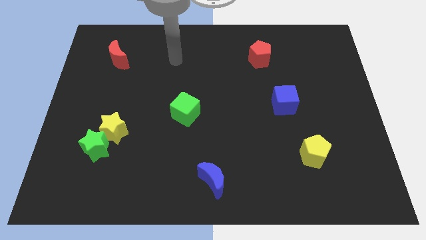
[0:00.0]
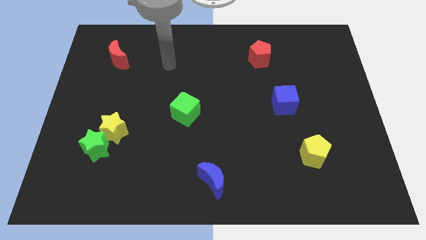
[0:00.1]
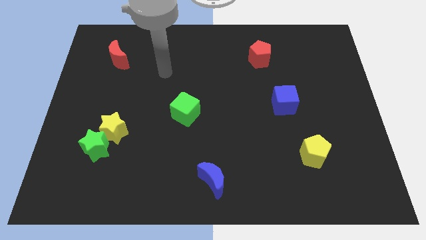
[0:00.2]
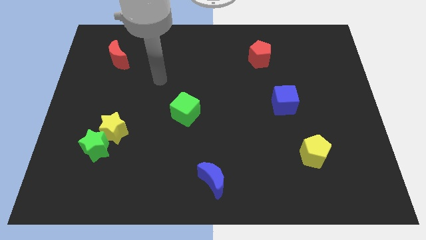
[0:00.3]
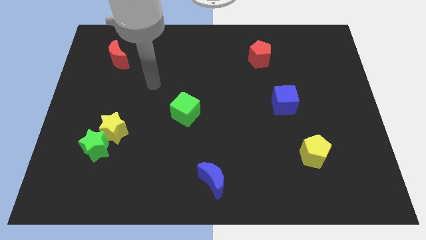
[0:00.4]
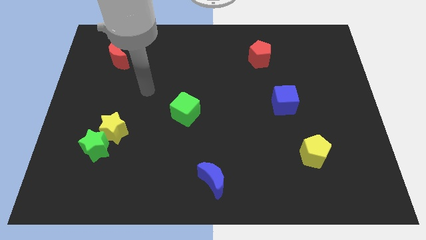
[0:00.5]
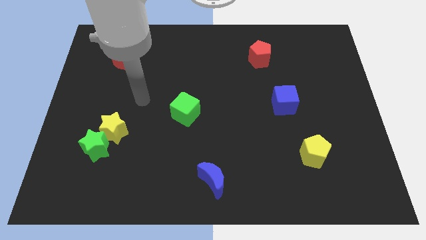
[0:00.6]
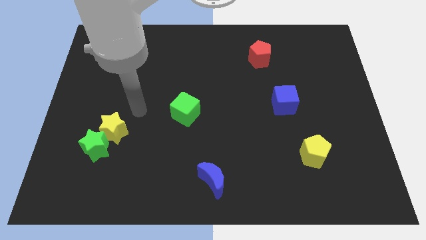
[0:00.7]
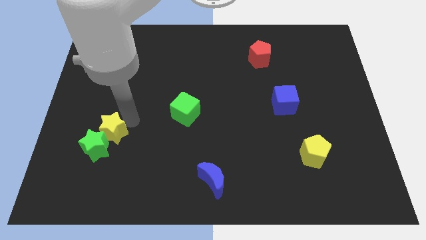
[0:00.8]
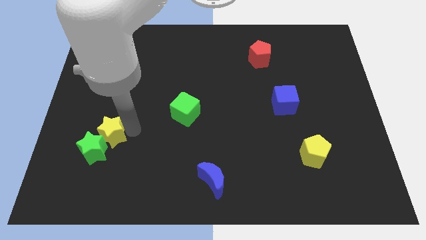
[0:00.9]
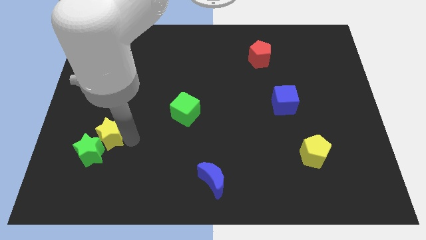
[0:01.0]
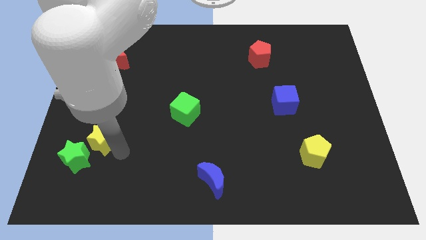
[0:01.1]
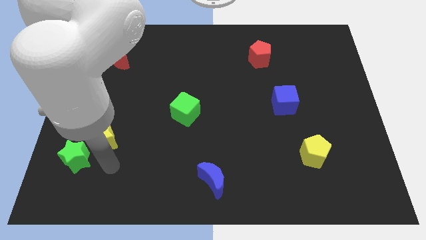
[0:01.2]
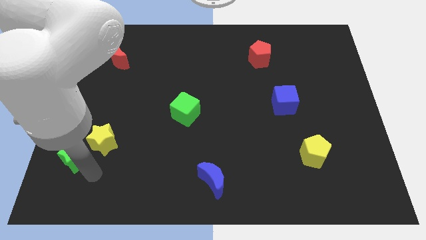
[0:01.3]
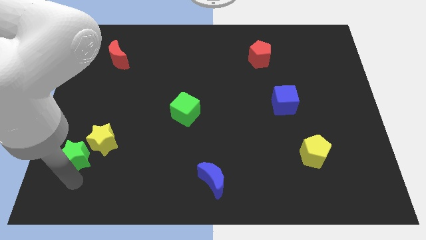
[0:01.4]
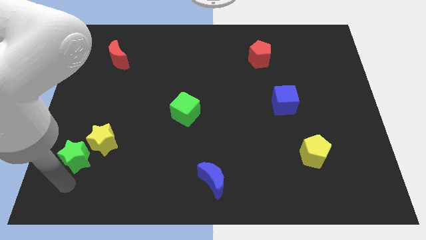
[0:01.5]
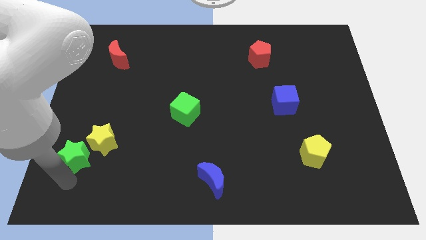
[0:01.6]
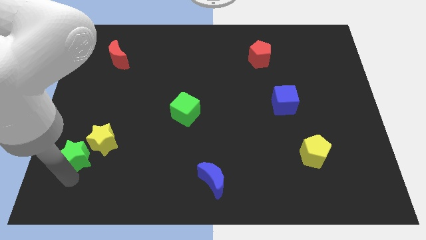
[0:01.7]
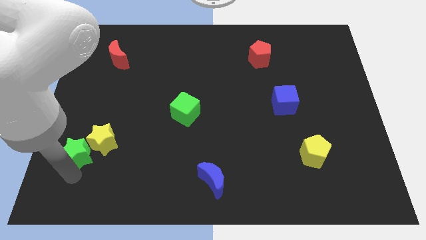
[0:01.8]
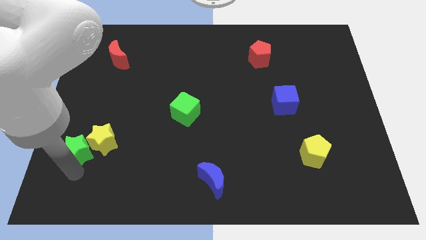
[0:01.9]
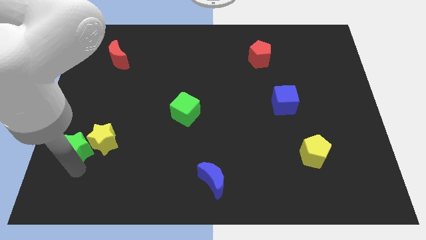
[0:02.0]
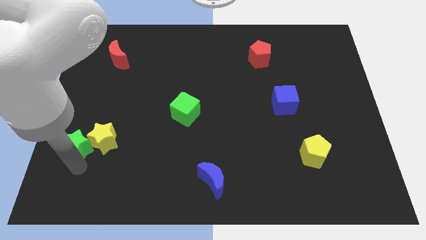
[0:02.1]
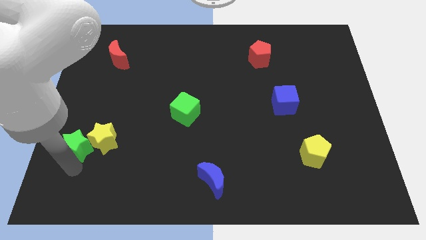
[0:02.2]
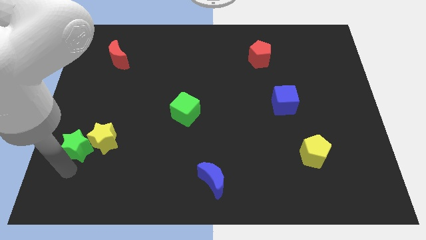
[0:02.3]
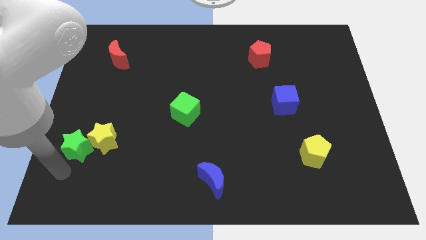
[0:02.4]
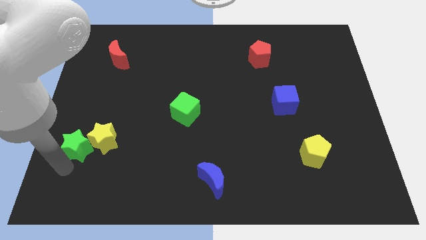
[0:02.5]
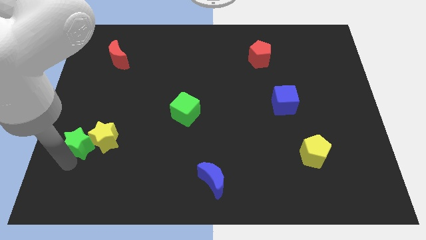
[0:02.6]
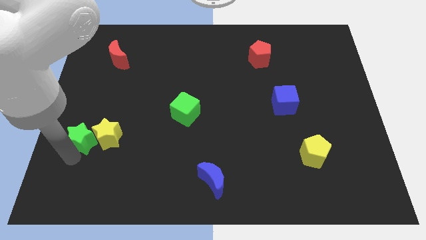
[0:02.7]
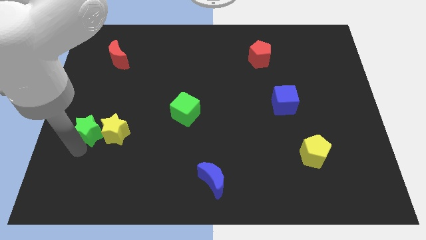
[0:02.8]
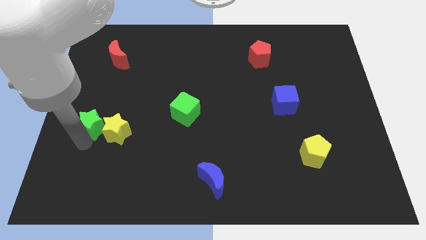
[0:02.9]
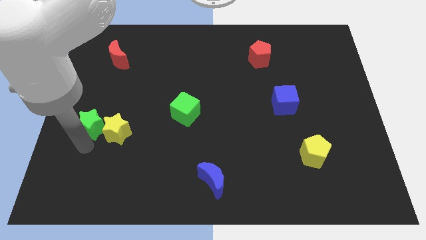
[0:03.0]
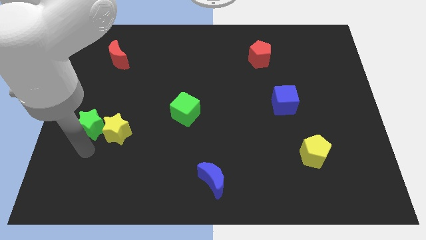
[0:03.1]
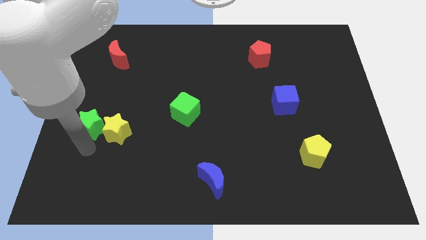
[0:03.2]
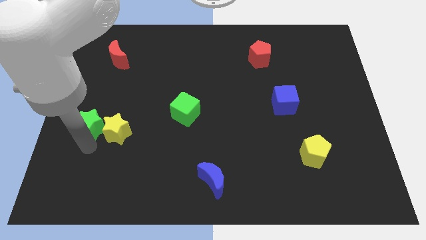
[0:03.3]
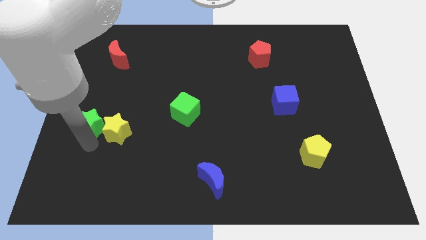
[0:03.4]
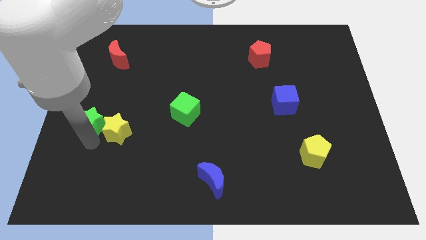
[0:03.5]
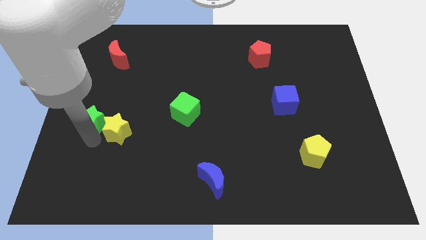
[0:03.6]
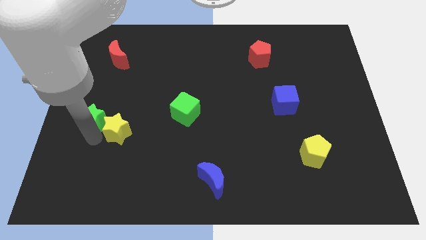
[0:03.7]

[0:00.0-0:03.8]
slightly move the green star up

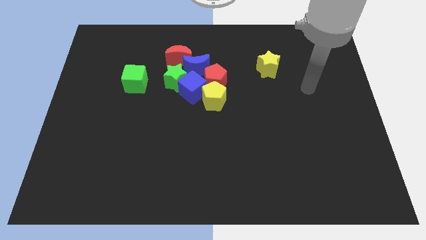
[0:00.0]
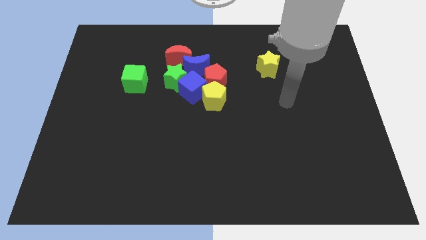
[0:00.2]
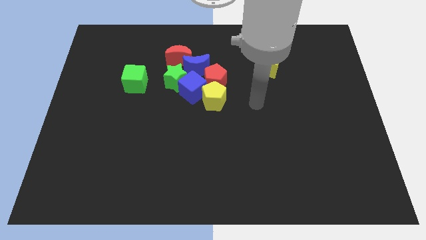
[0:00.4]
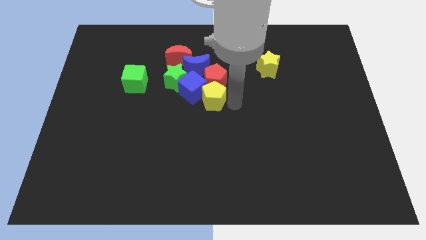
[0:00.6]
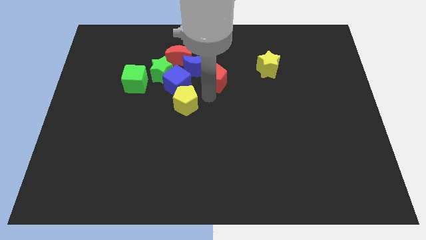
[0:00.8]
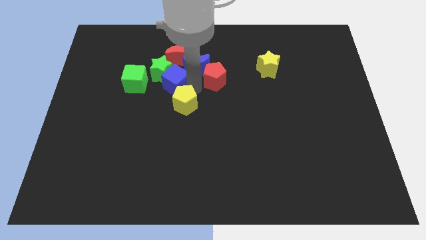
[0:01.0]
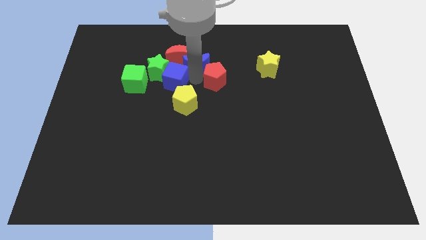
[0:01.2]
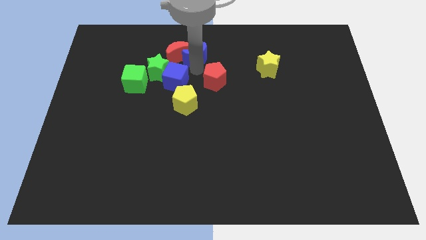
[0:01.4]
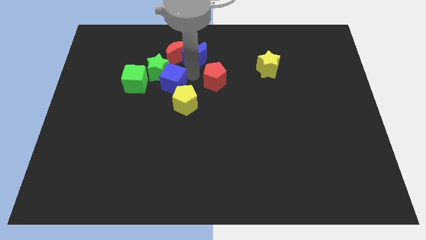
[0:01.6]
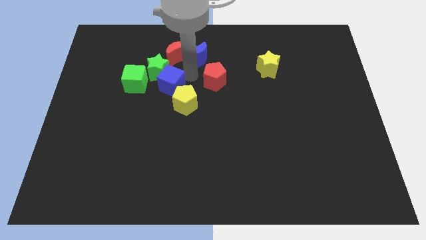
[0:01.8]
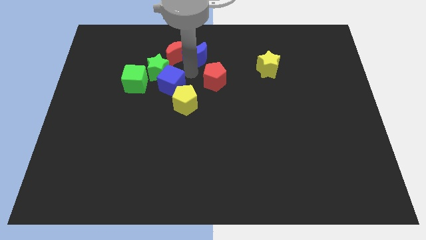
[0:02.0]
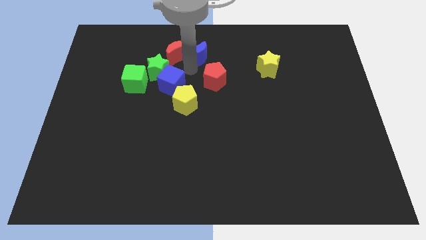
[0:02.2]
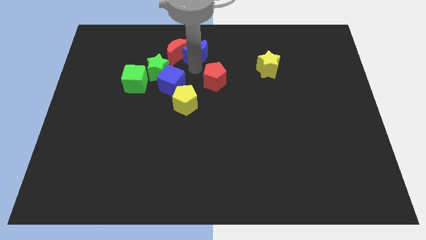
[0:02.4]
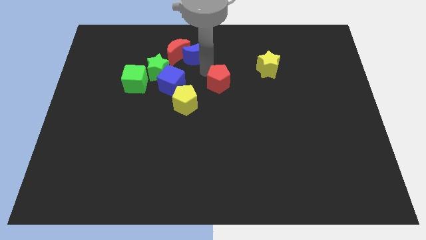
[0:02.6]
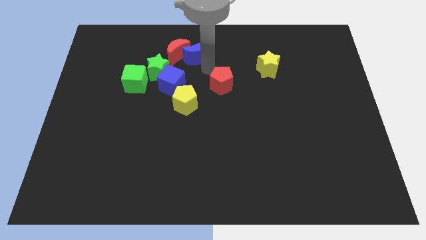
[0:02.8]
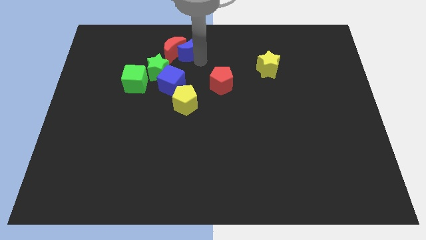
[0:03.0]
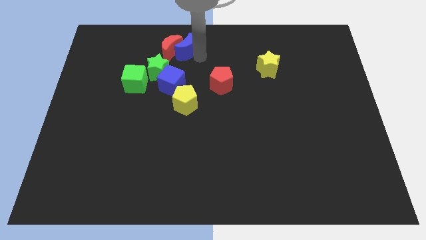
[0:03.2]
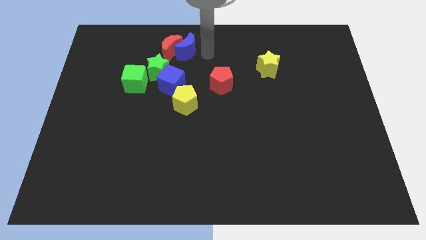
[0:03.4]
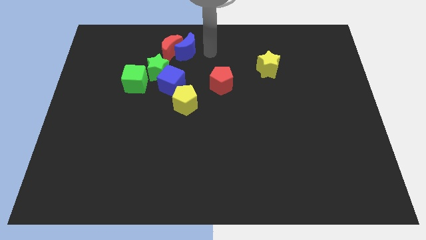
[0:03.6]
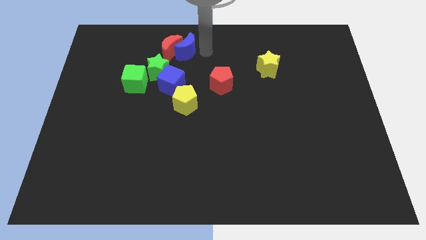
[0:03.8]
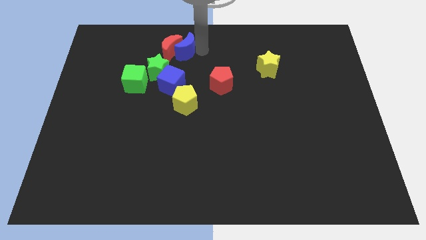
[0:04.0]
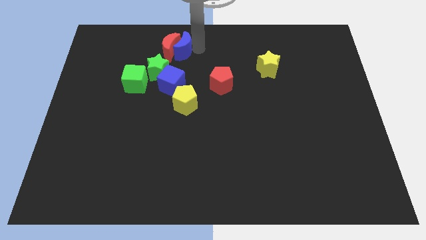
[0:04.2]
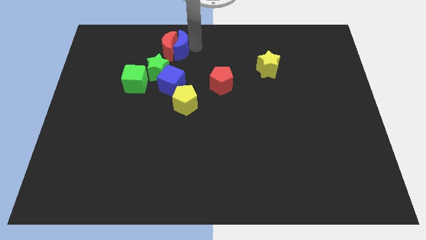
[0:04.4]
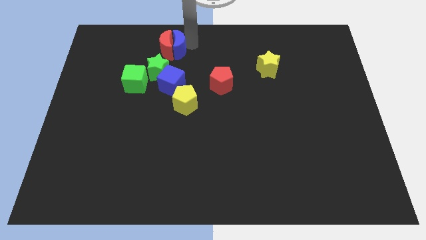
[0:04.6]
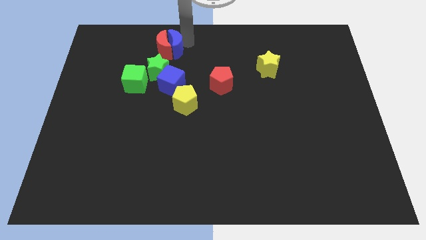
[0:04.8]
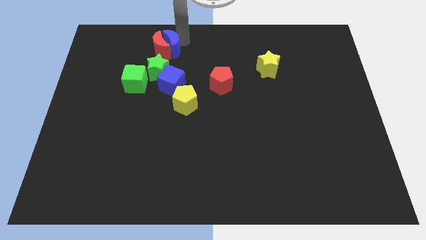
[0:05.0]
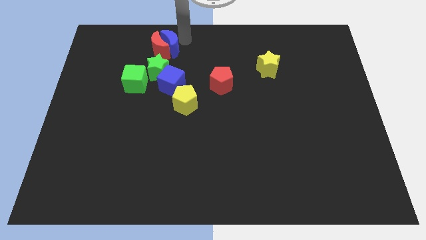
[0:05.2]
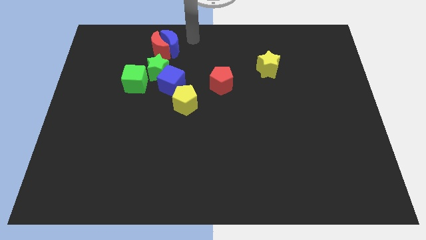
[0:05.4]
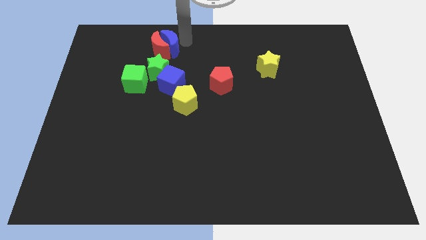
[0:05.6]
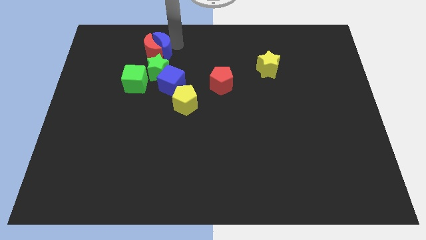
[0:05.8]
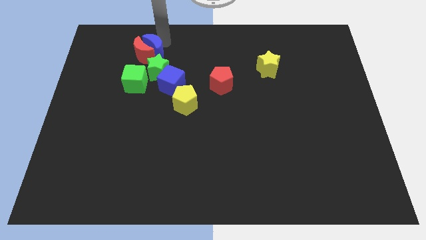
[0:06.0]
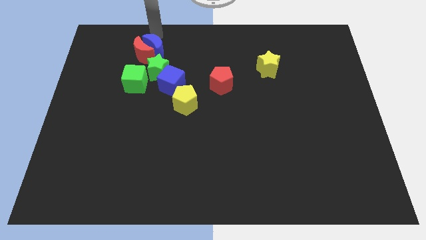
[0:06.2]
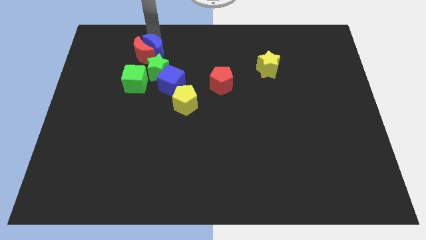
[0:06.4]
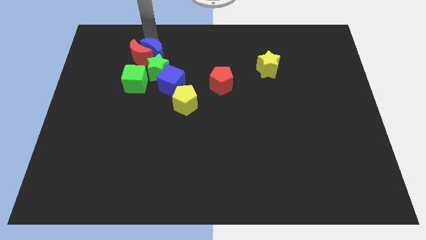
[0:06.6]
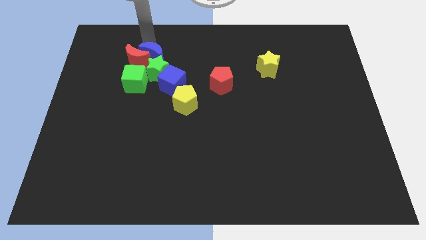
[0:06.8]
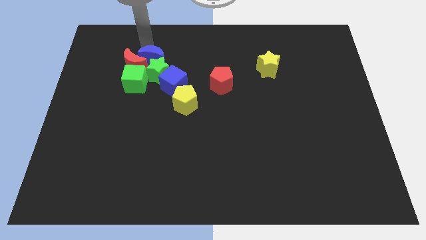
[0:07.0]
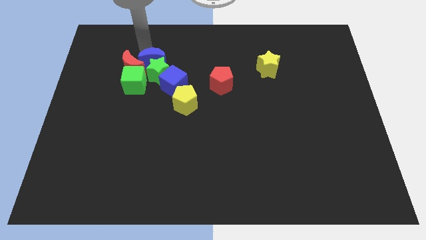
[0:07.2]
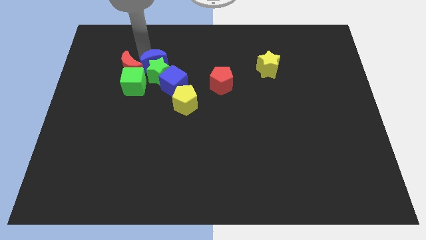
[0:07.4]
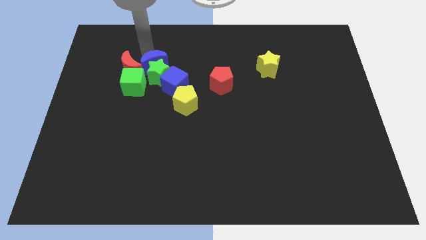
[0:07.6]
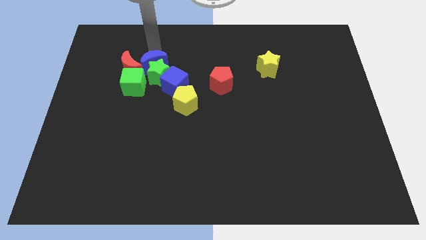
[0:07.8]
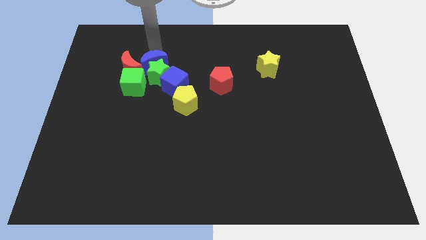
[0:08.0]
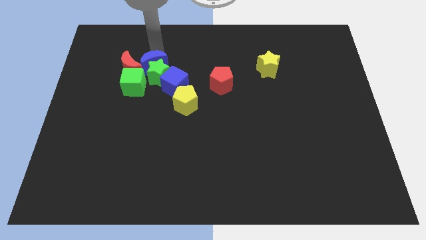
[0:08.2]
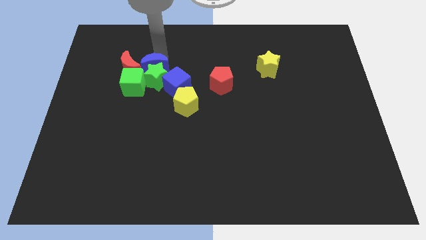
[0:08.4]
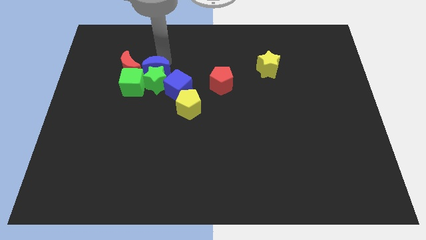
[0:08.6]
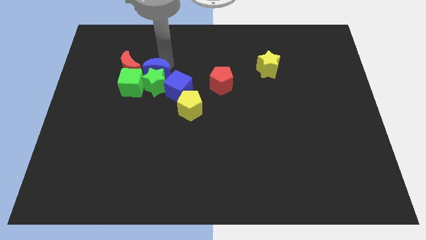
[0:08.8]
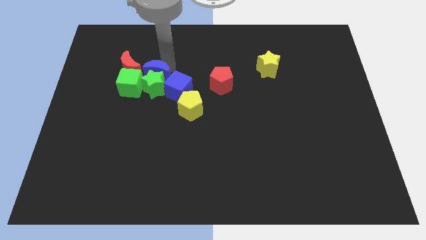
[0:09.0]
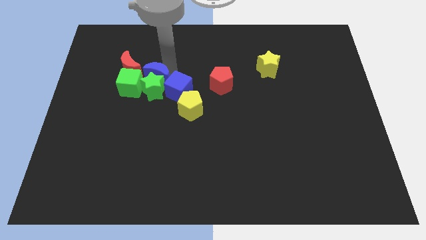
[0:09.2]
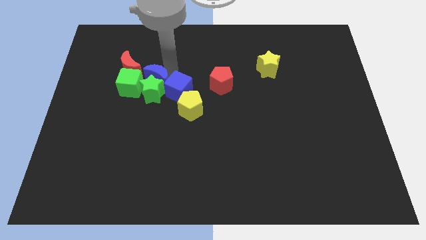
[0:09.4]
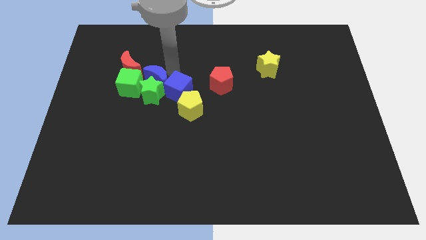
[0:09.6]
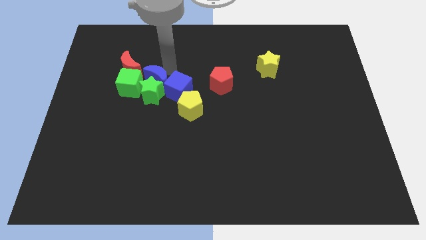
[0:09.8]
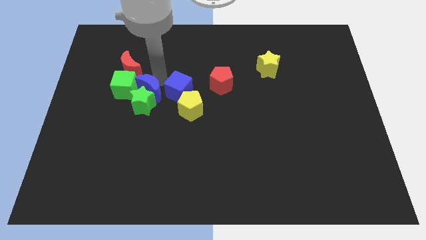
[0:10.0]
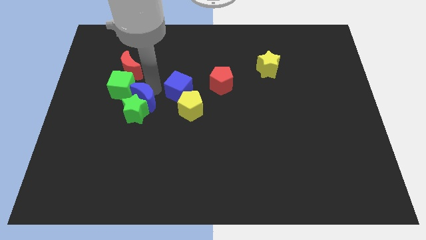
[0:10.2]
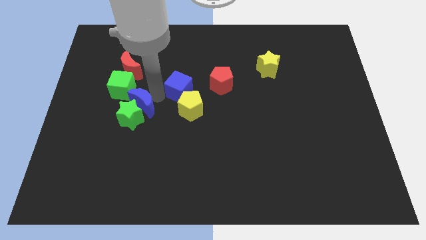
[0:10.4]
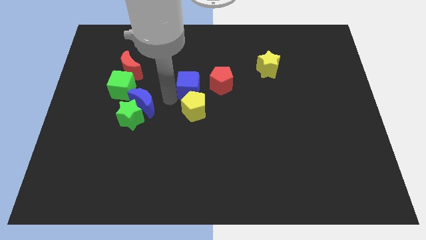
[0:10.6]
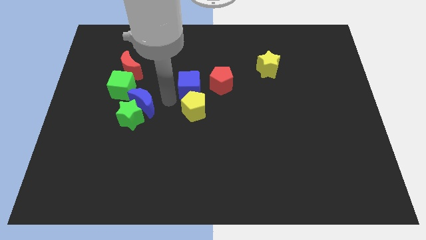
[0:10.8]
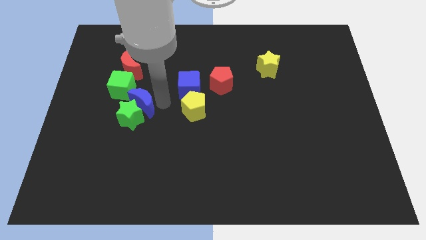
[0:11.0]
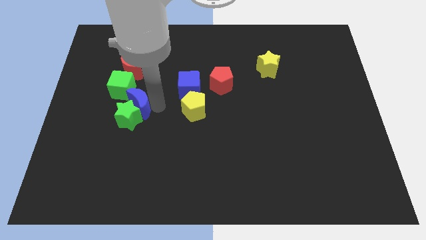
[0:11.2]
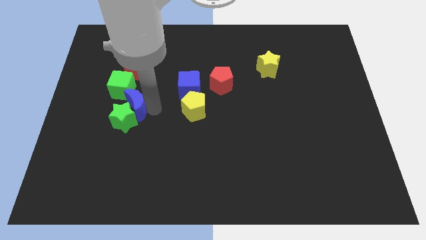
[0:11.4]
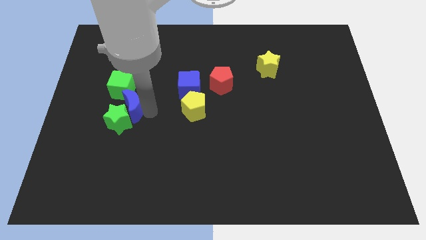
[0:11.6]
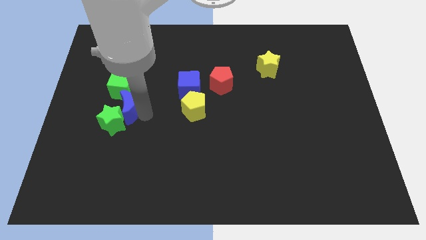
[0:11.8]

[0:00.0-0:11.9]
move the blue moon downwards and to the left
